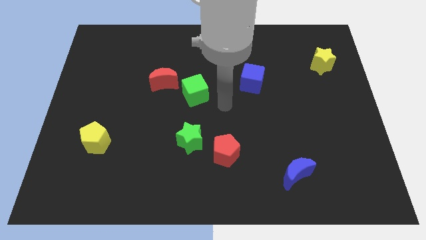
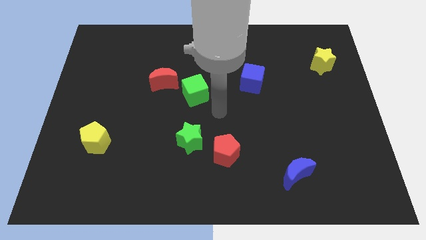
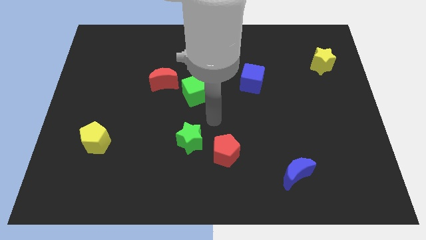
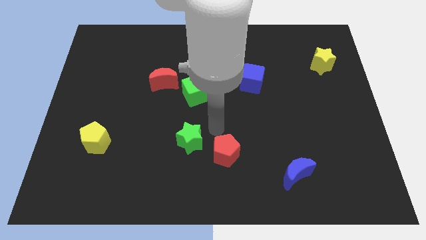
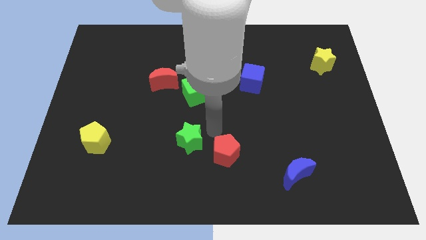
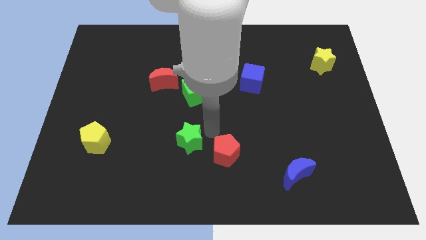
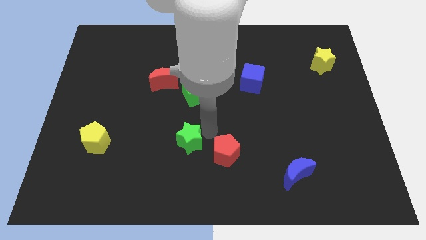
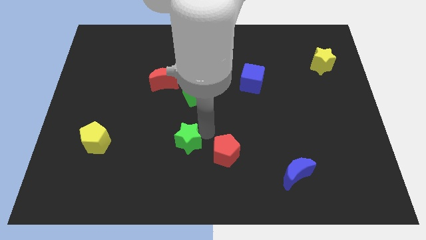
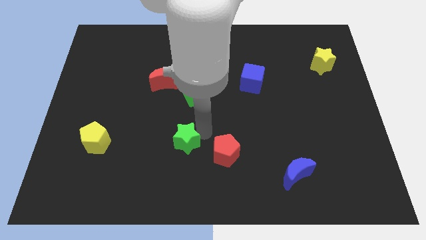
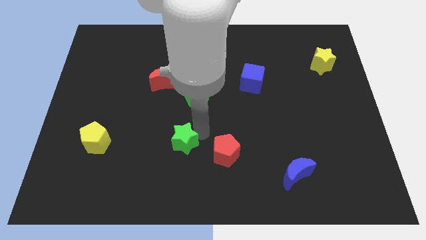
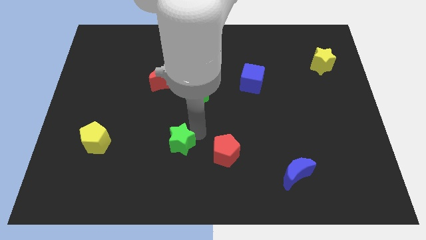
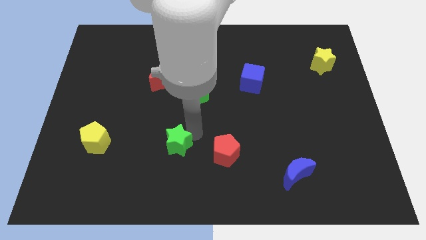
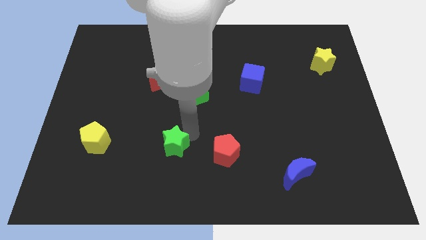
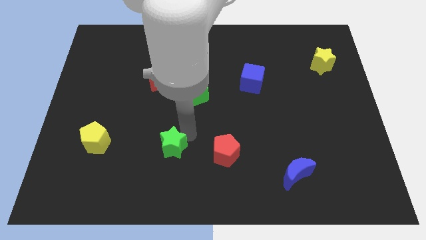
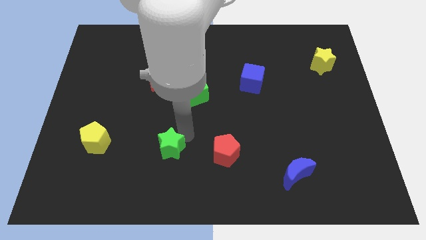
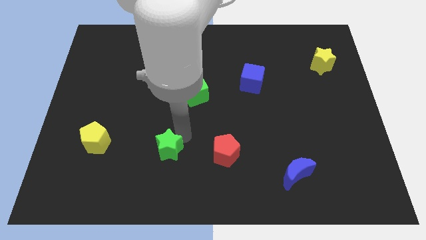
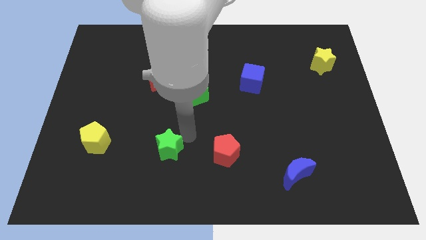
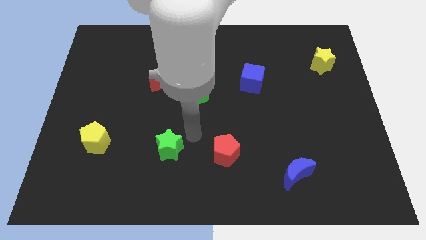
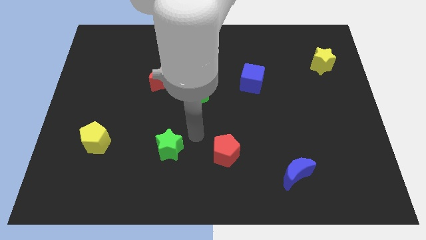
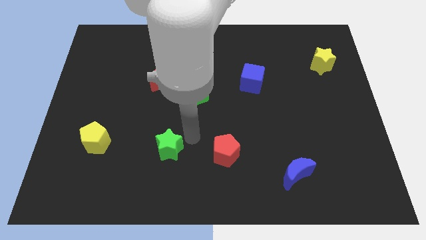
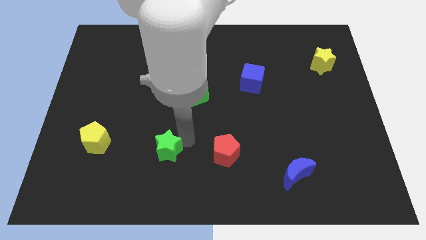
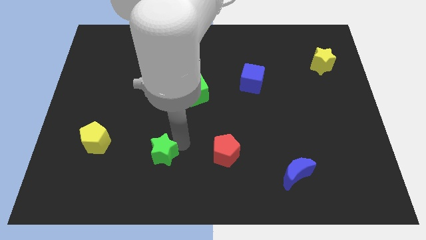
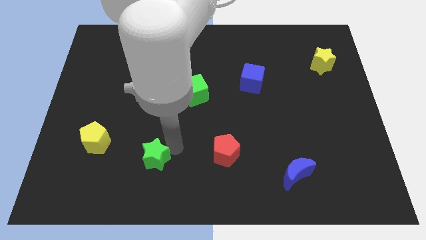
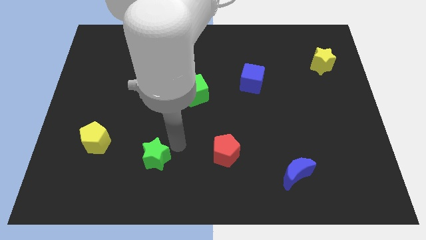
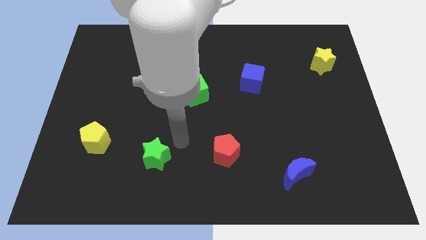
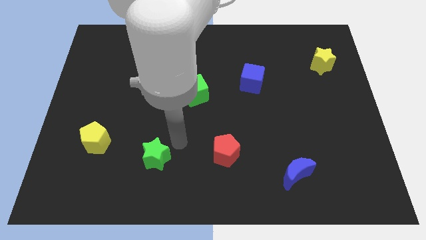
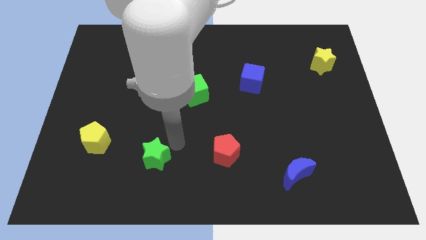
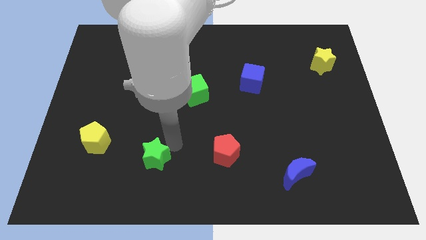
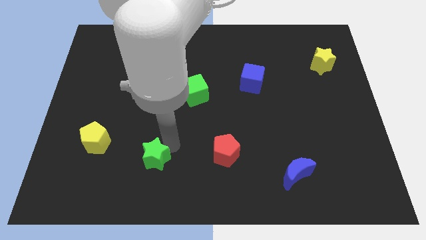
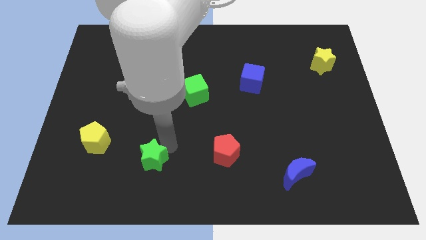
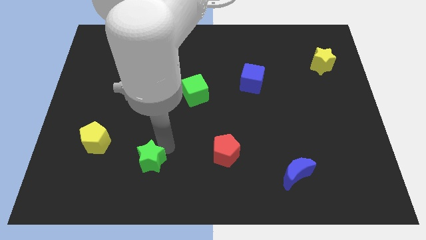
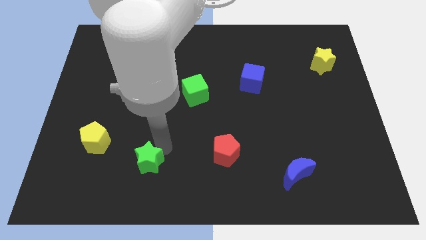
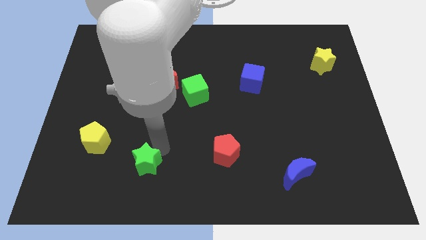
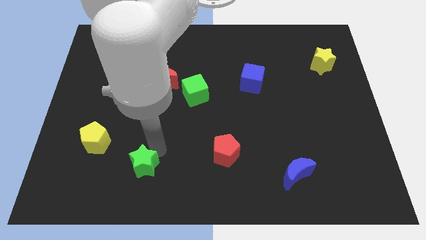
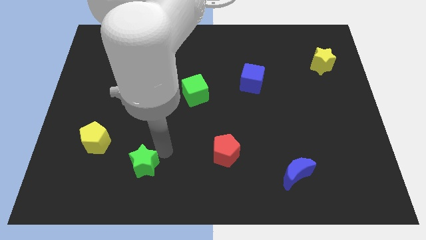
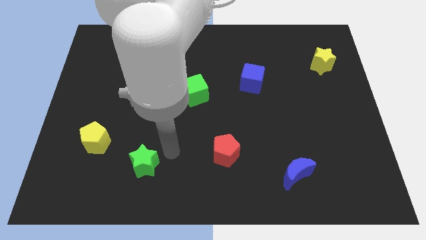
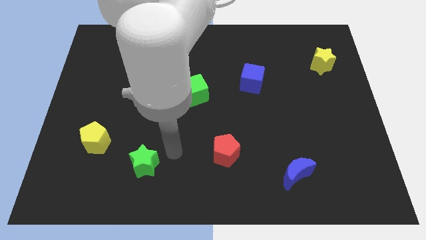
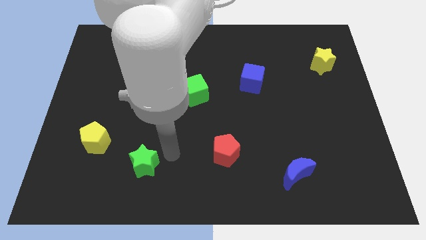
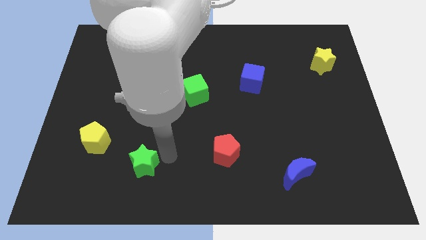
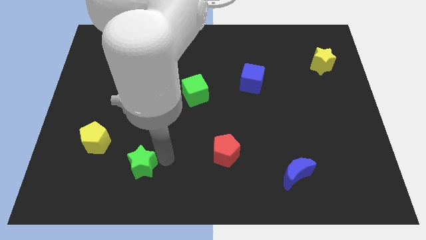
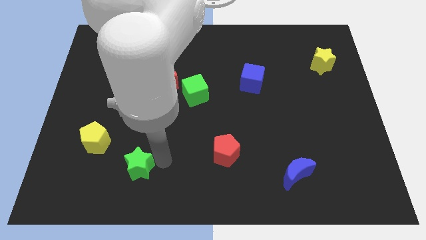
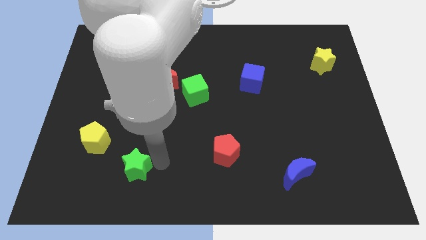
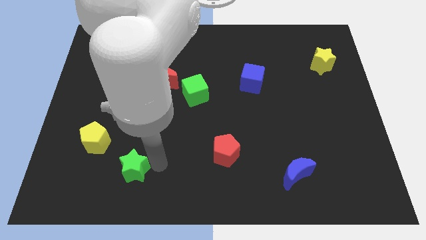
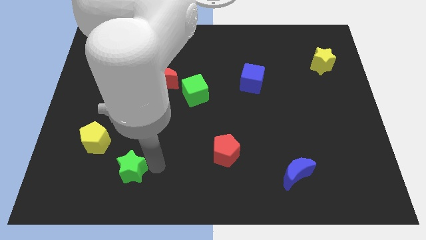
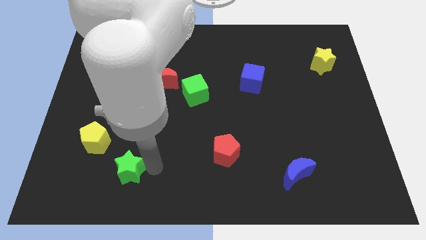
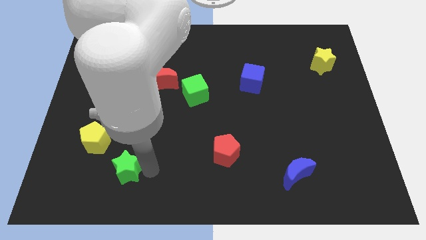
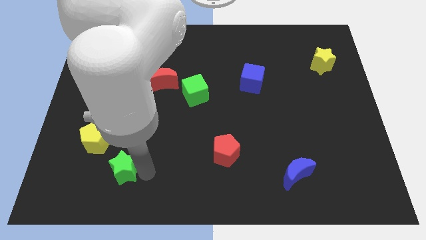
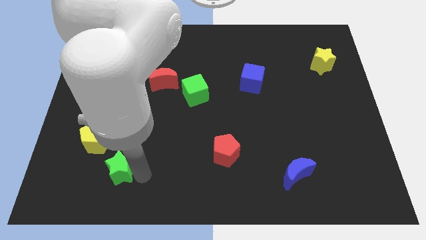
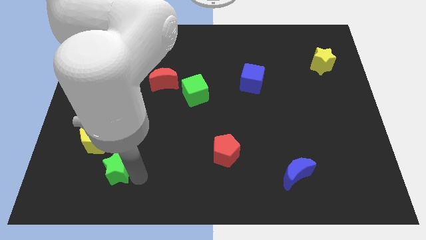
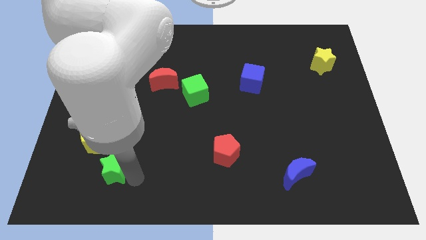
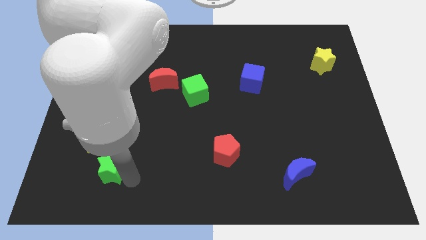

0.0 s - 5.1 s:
push the green star to the bottom of the yellow pentagon

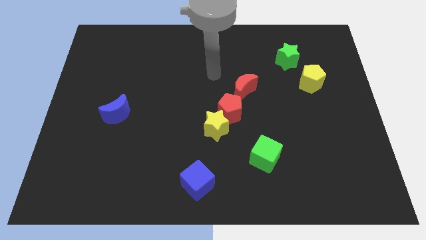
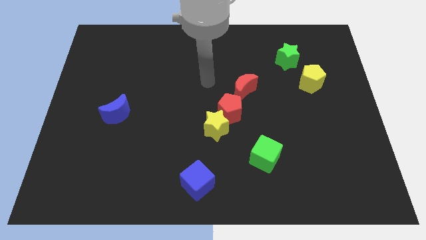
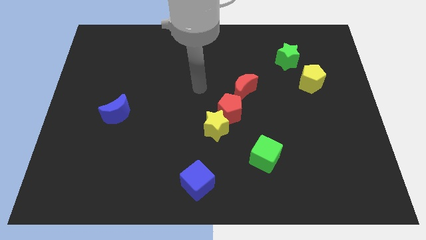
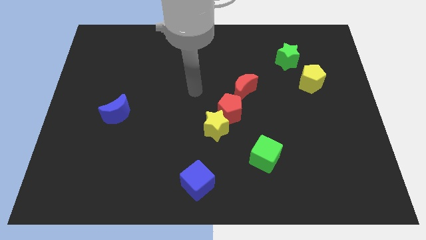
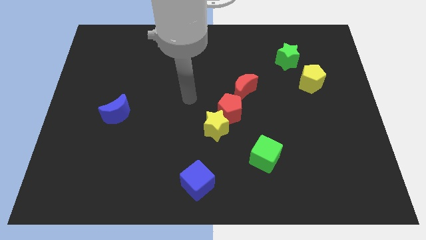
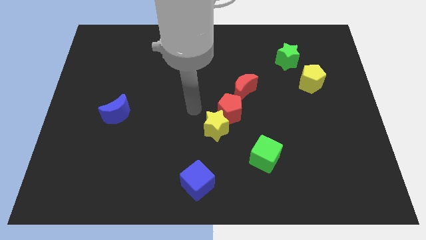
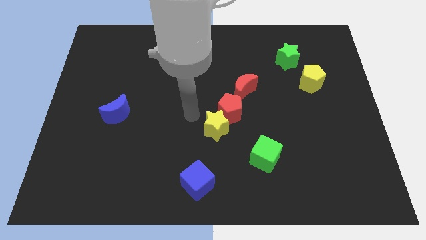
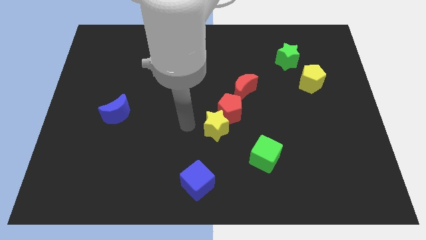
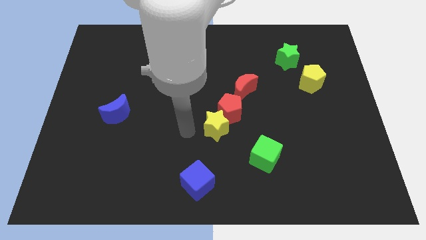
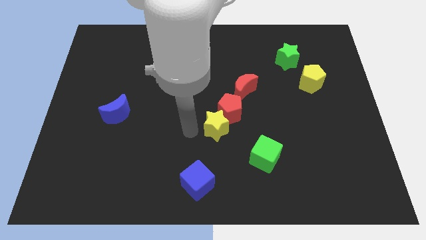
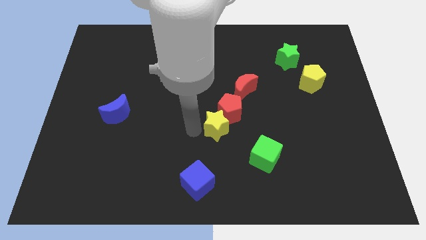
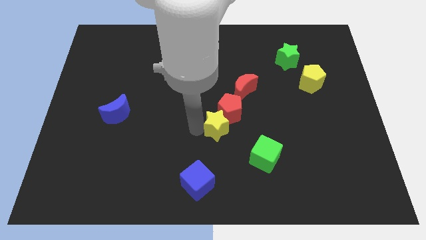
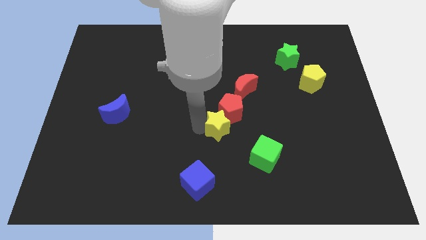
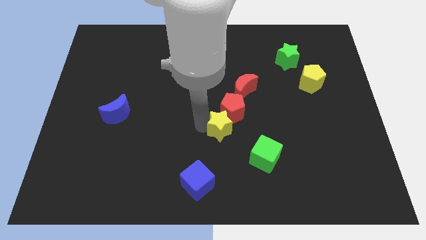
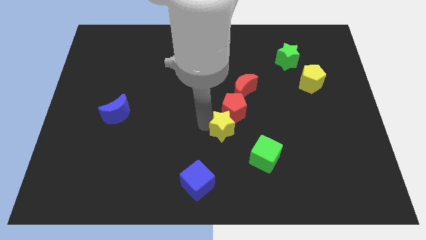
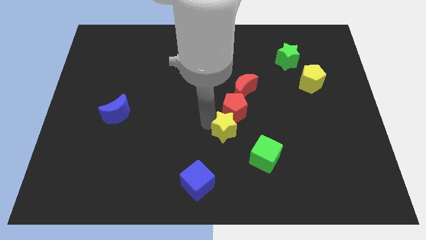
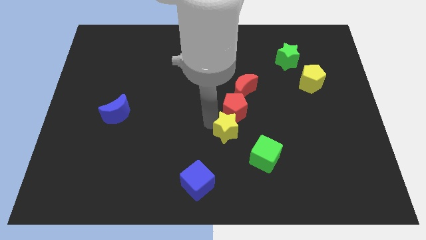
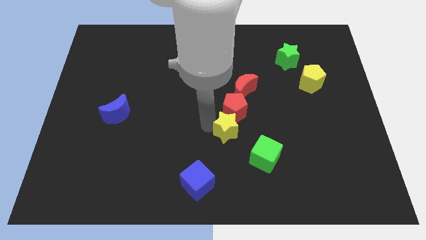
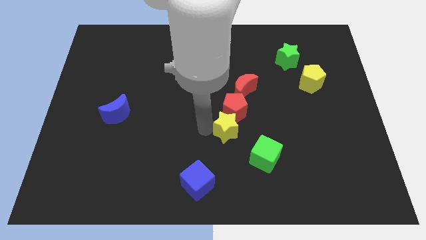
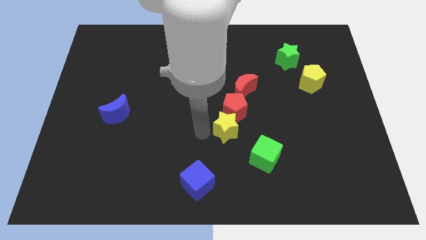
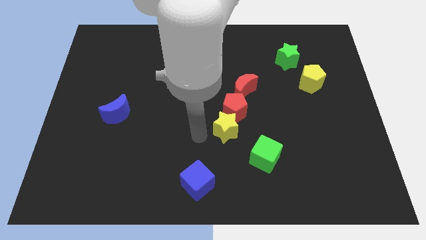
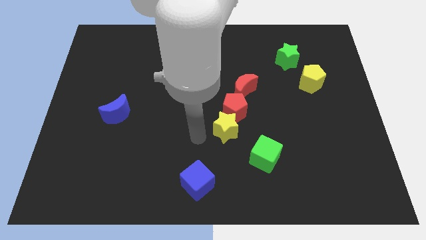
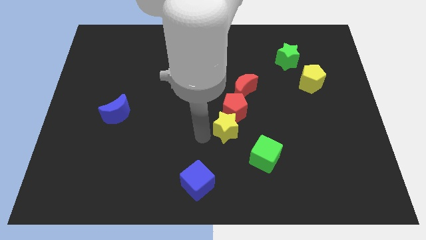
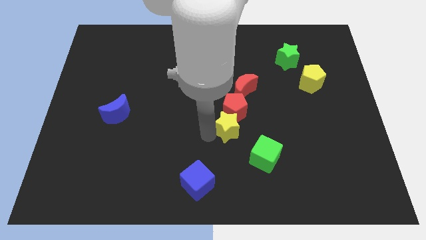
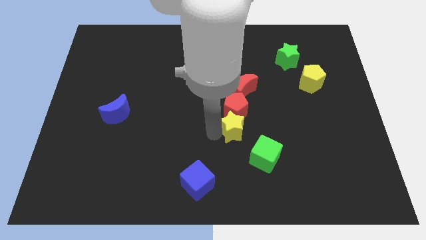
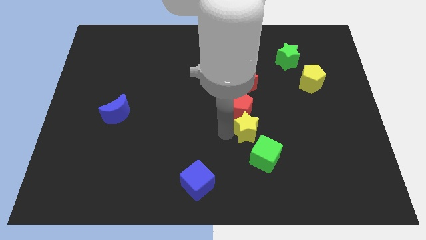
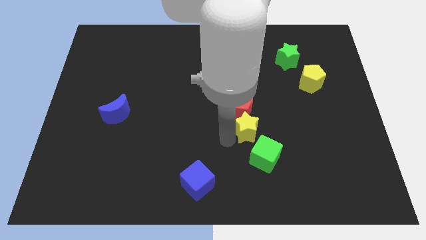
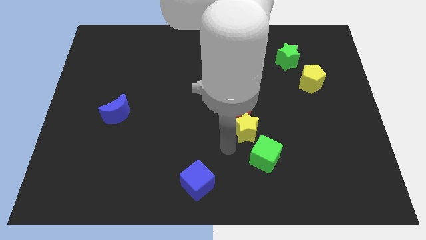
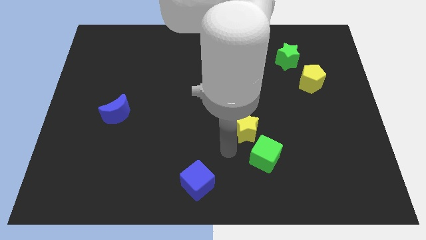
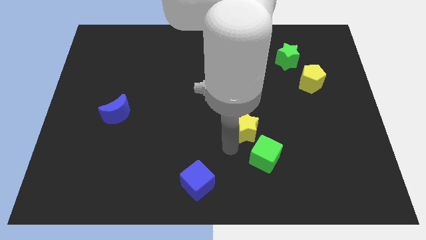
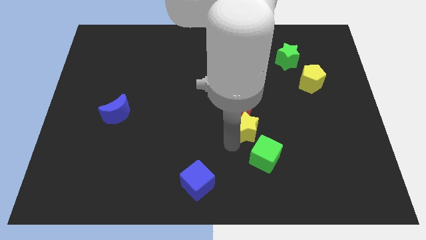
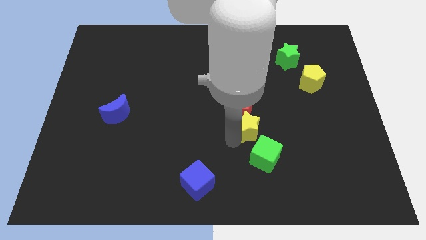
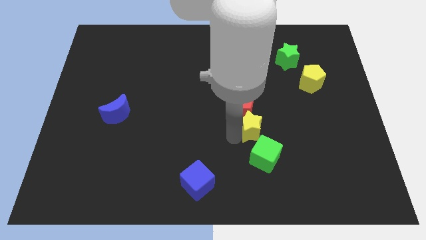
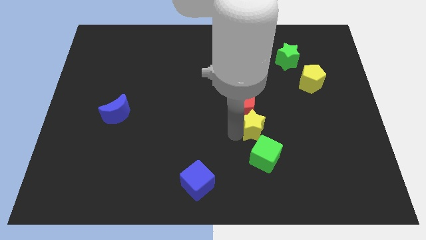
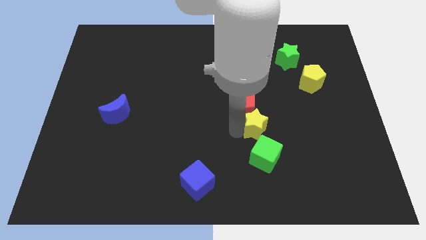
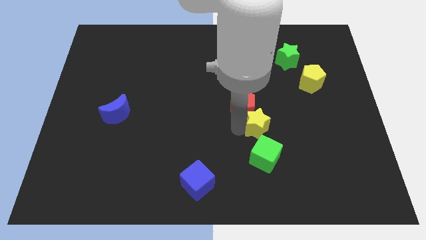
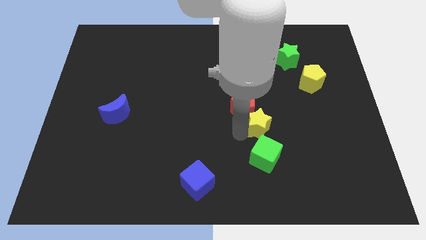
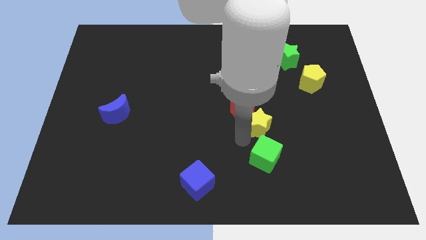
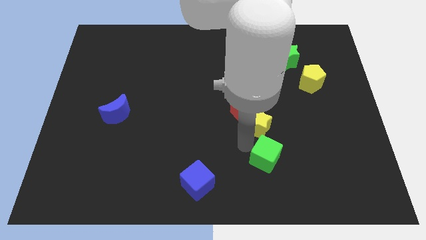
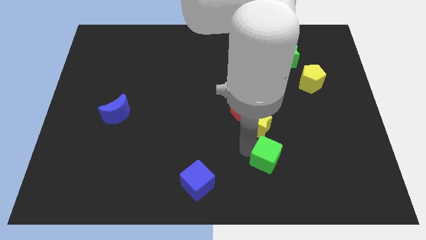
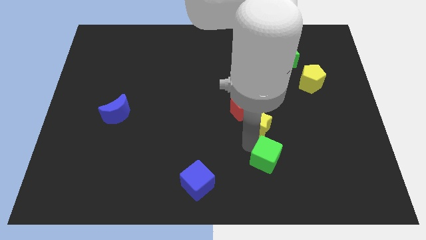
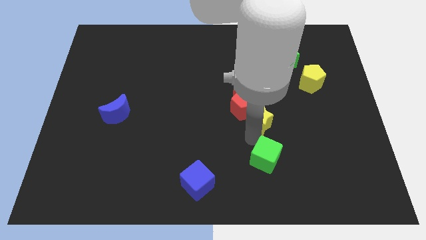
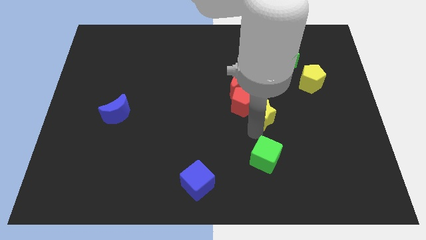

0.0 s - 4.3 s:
slide the yellow star to the bottom right of the red moon
